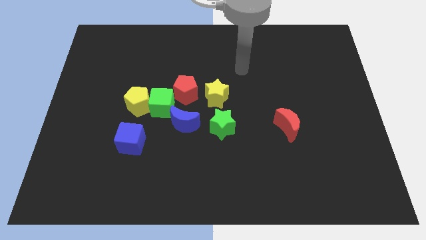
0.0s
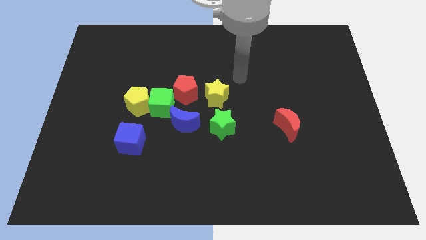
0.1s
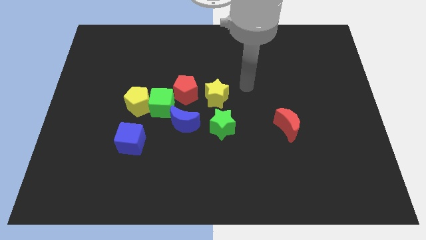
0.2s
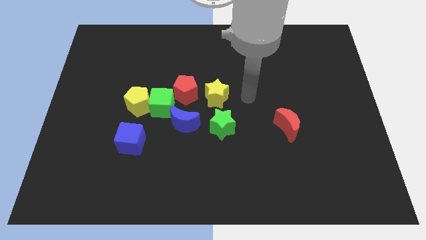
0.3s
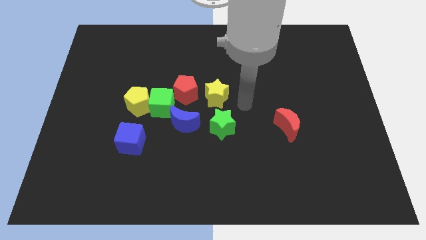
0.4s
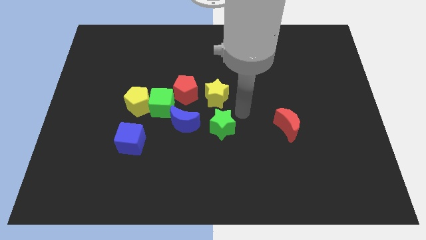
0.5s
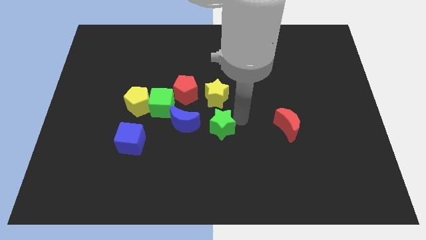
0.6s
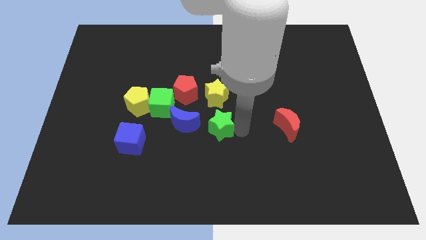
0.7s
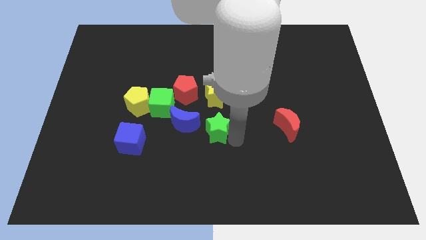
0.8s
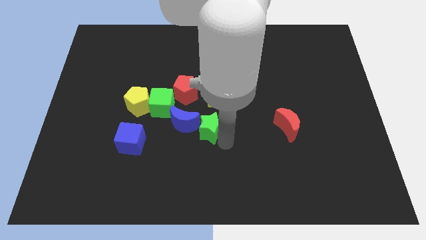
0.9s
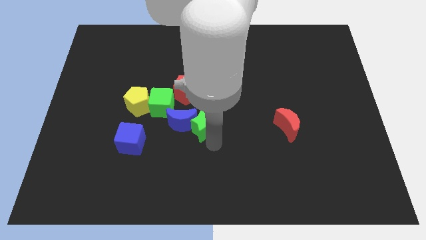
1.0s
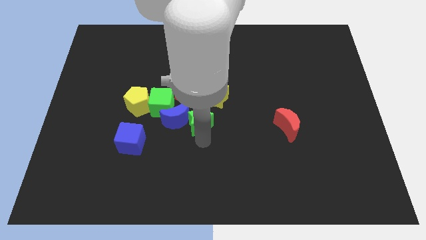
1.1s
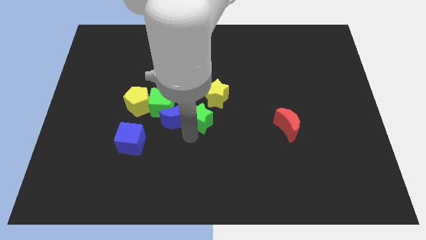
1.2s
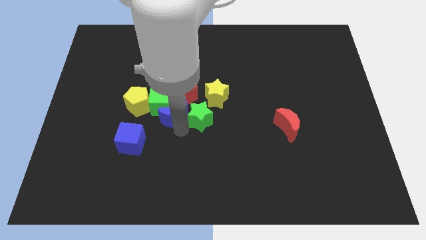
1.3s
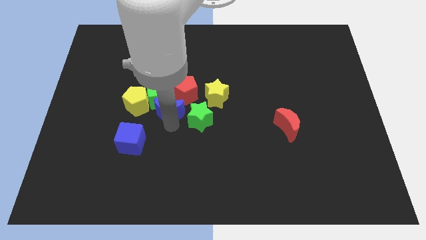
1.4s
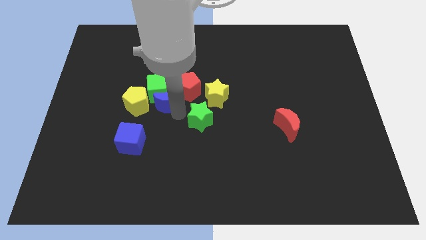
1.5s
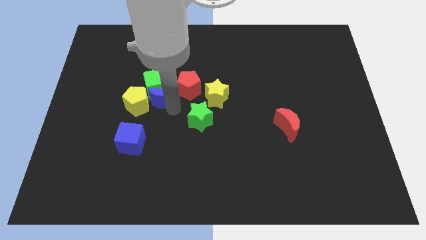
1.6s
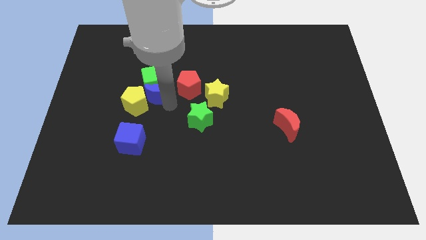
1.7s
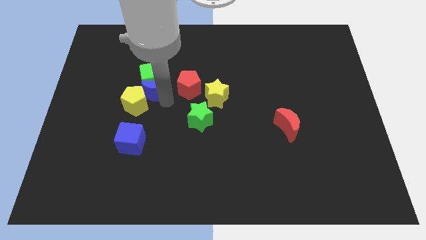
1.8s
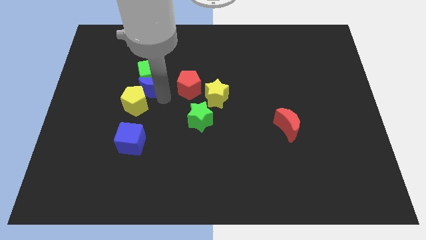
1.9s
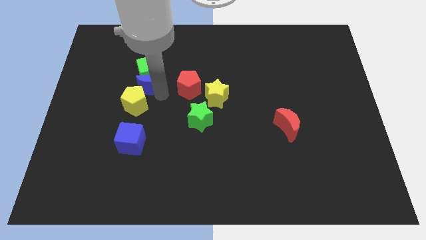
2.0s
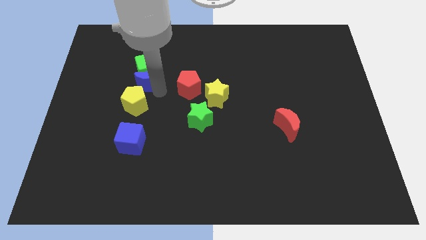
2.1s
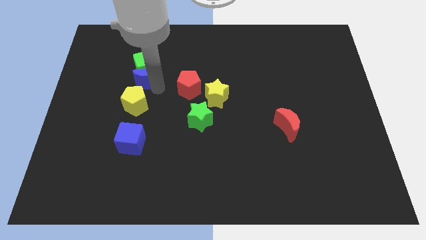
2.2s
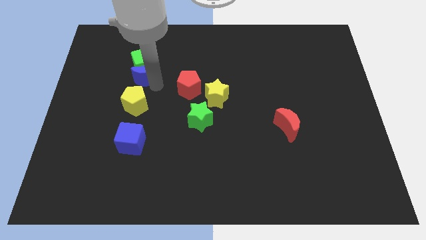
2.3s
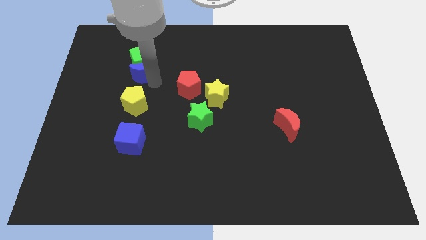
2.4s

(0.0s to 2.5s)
pull the green cube apart from the yellow pentagon, red pentagon, and blue moon

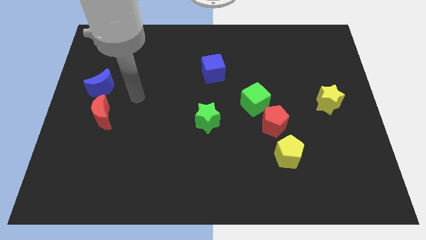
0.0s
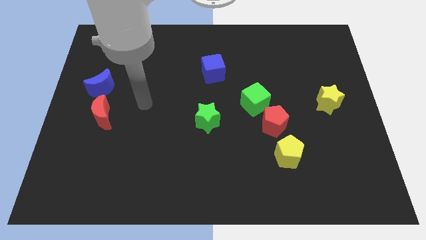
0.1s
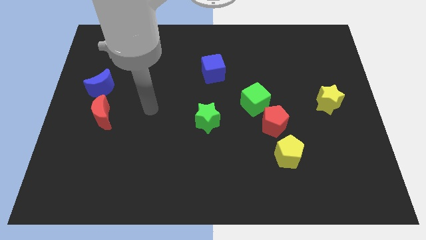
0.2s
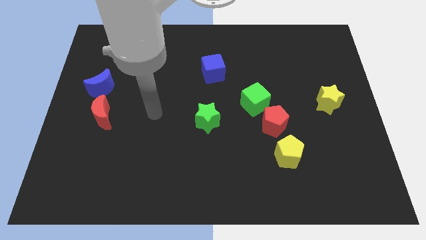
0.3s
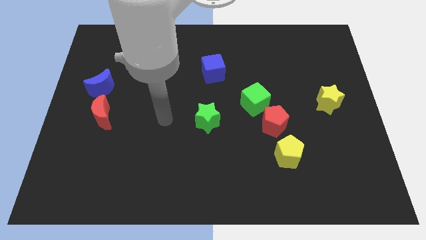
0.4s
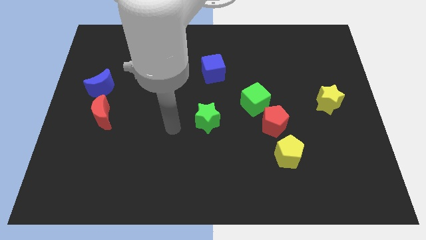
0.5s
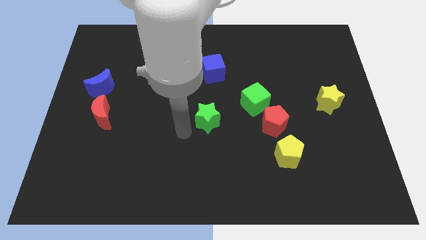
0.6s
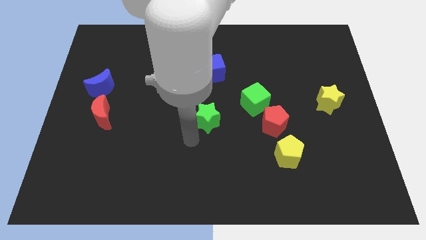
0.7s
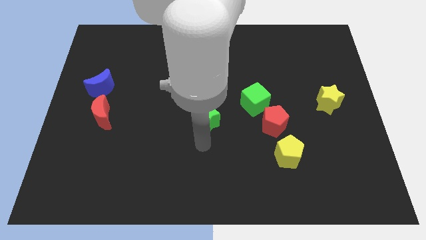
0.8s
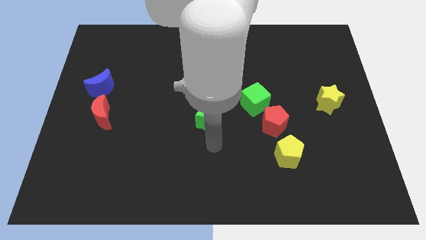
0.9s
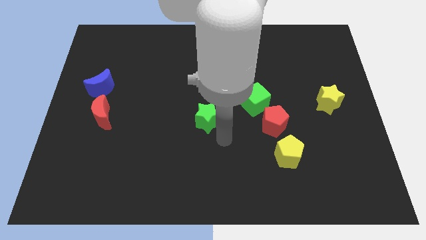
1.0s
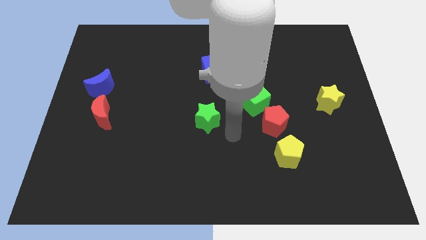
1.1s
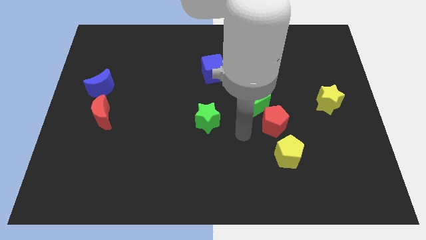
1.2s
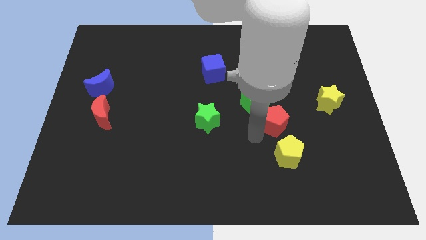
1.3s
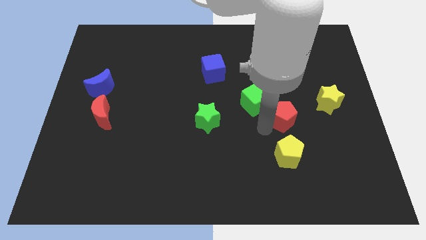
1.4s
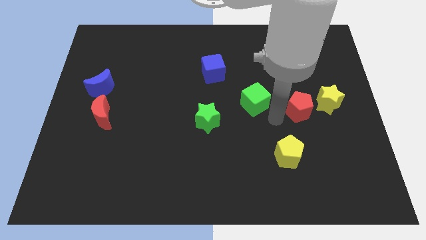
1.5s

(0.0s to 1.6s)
pull the green cube apart from the red pentagon

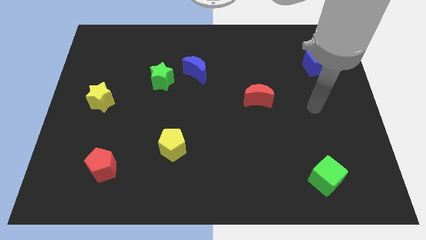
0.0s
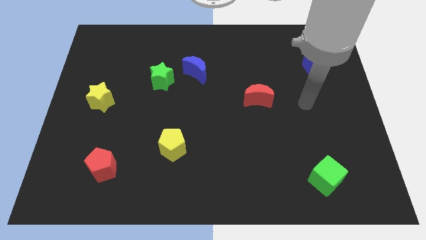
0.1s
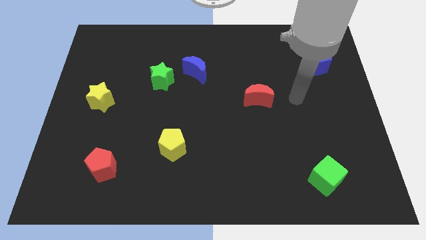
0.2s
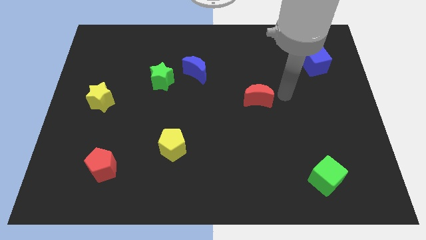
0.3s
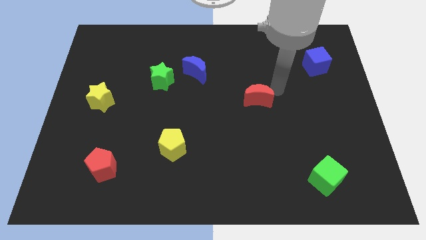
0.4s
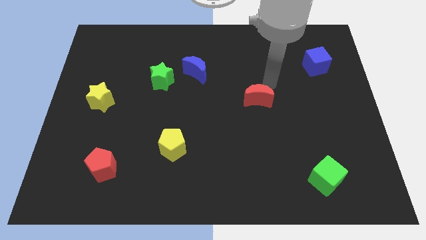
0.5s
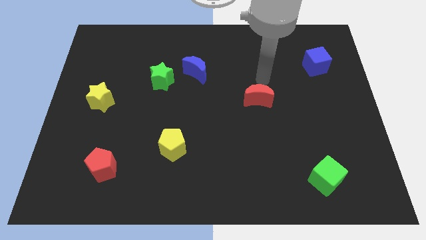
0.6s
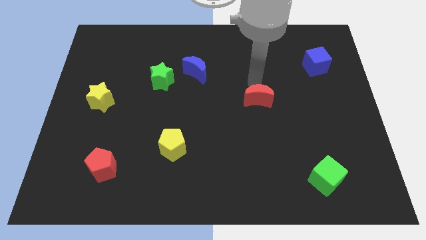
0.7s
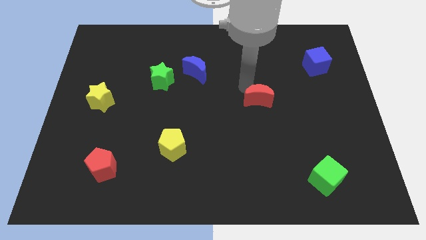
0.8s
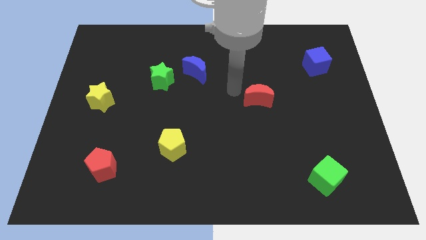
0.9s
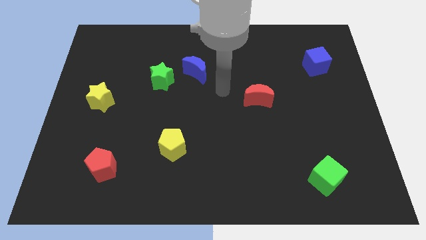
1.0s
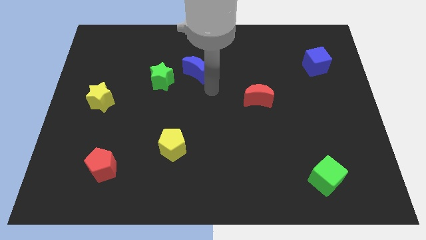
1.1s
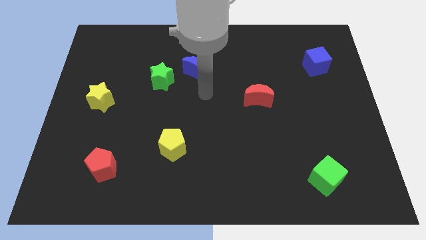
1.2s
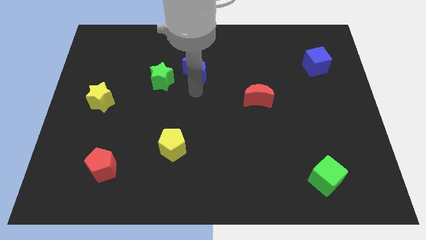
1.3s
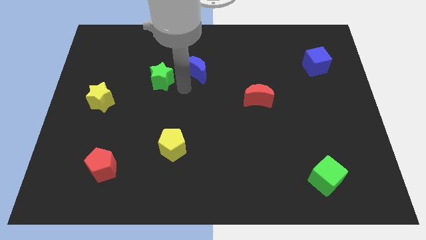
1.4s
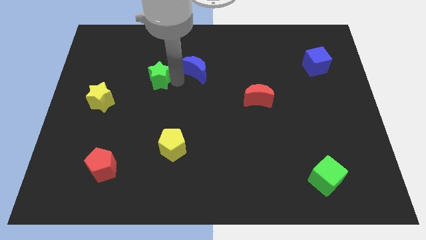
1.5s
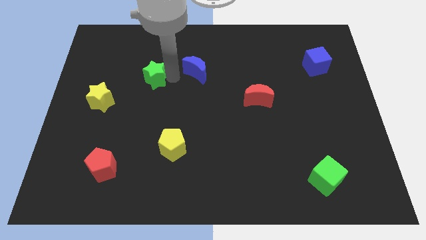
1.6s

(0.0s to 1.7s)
pull the blue moon apart from the green star

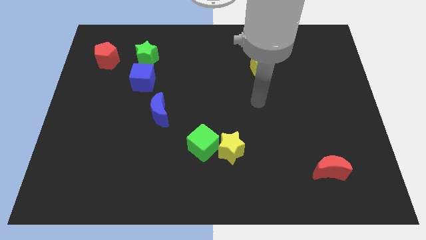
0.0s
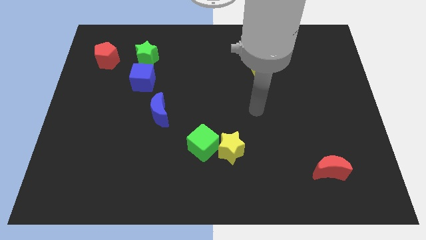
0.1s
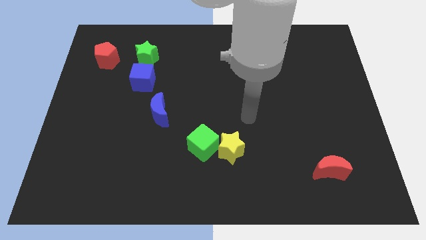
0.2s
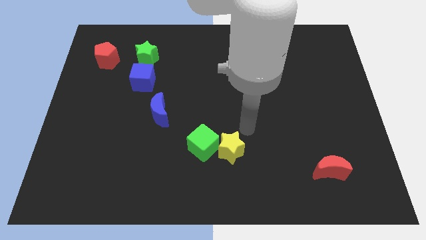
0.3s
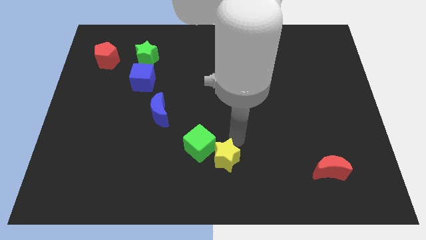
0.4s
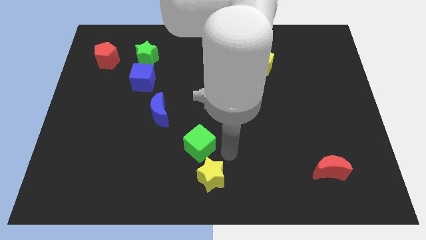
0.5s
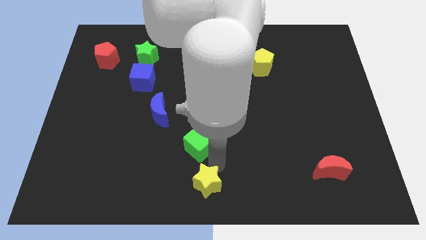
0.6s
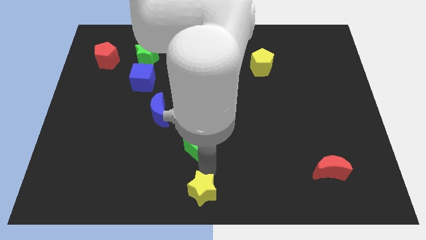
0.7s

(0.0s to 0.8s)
separate the green cube from the yellow star

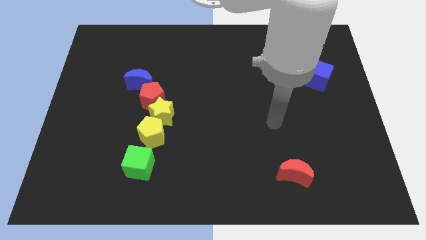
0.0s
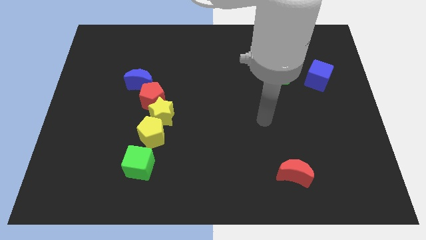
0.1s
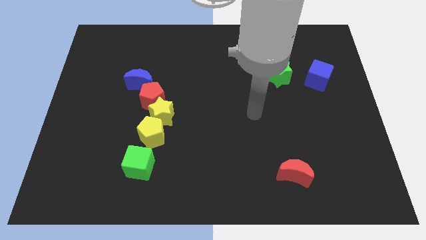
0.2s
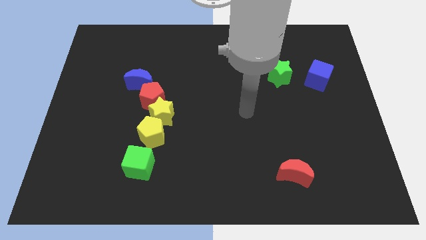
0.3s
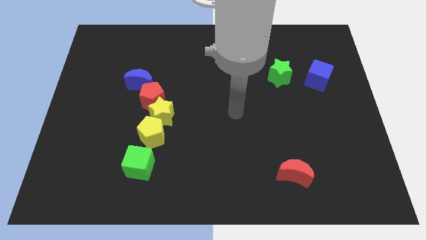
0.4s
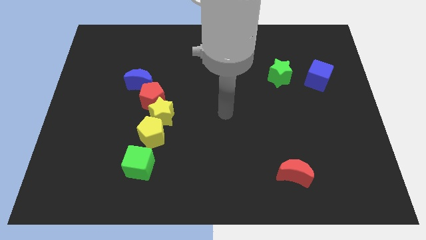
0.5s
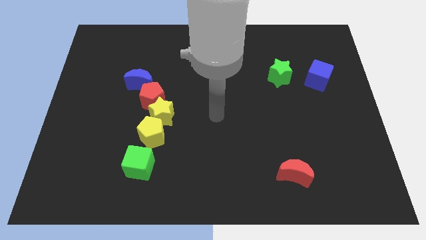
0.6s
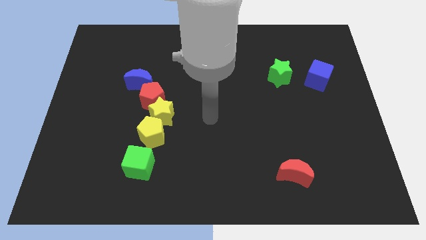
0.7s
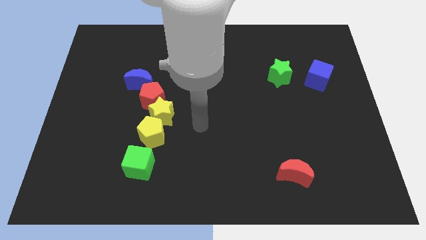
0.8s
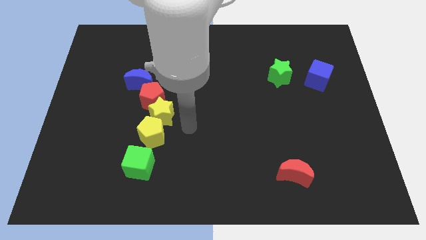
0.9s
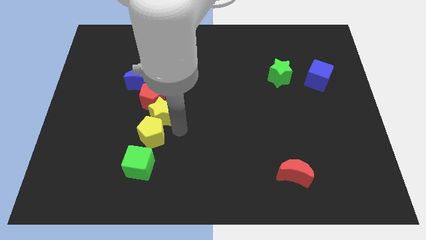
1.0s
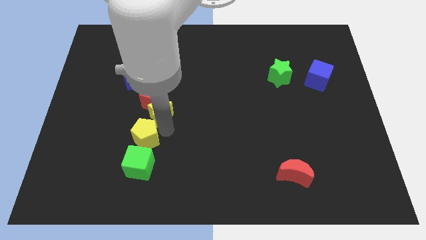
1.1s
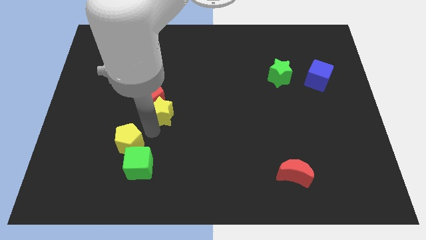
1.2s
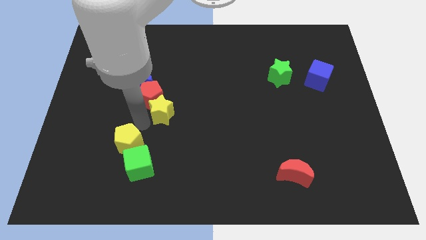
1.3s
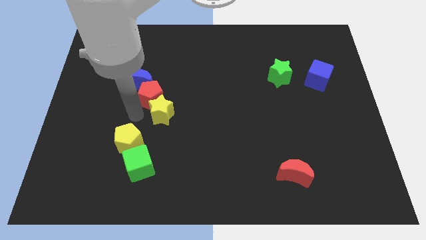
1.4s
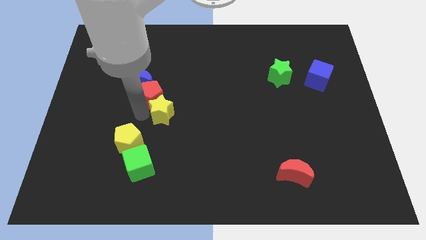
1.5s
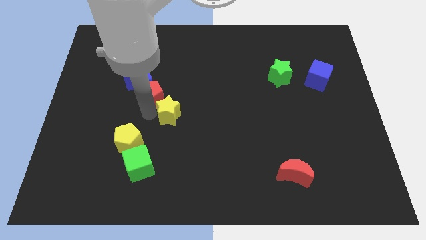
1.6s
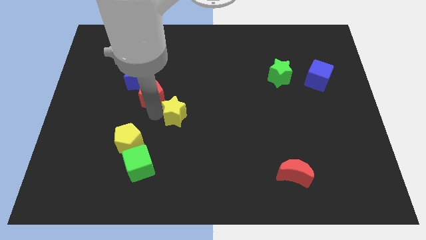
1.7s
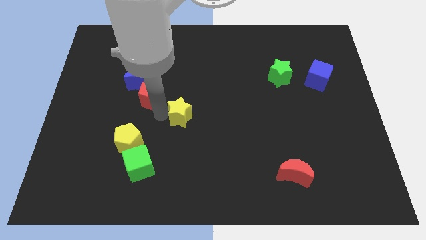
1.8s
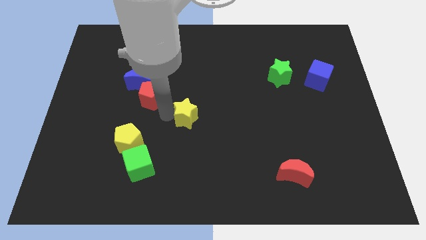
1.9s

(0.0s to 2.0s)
pull the yellow star apart from the red pentagon and yellow pentagon

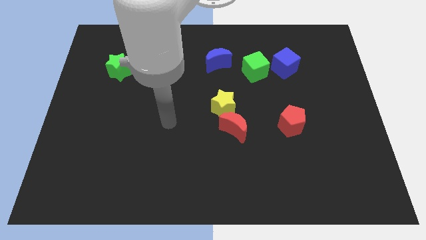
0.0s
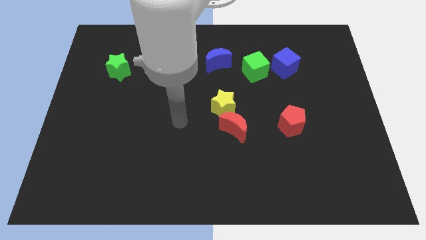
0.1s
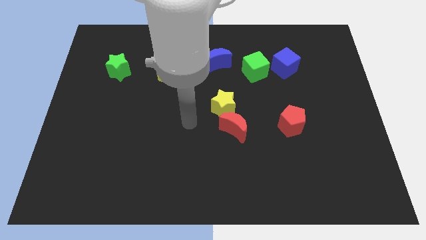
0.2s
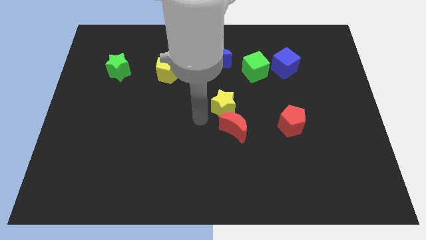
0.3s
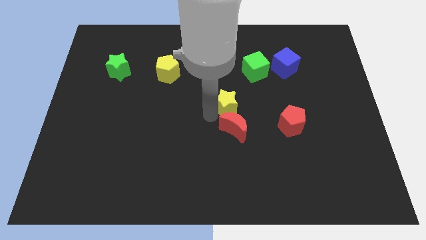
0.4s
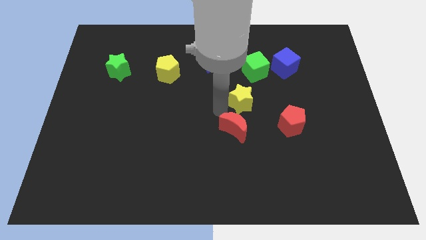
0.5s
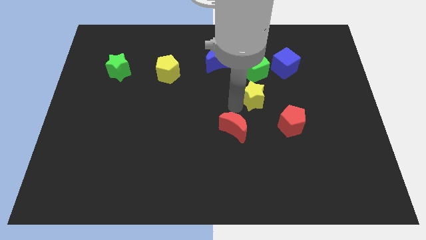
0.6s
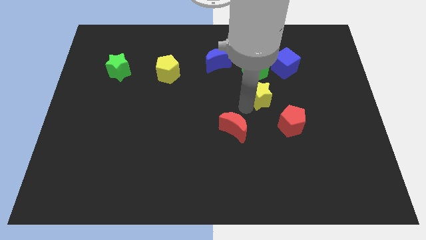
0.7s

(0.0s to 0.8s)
pull the red moon apart from the yellow star
